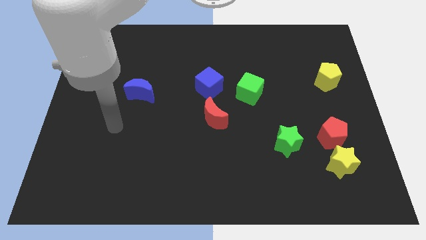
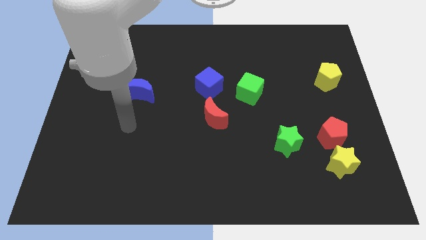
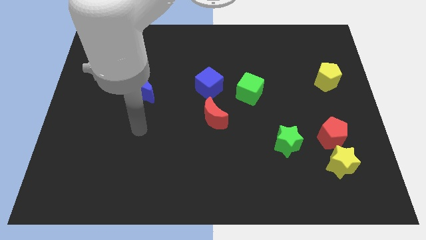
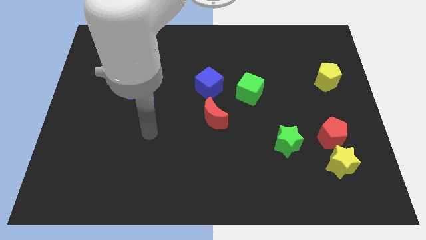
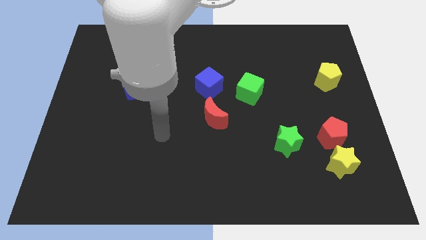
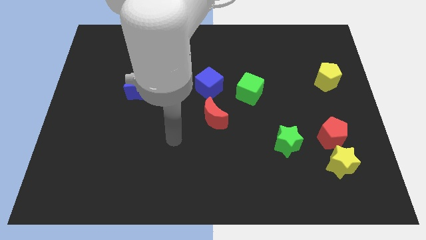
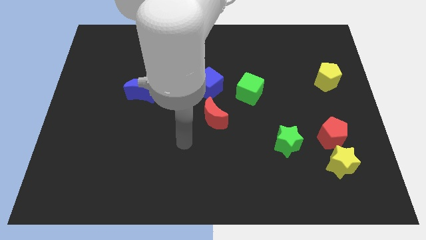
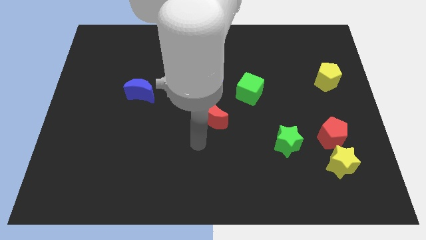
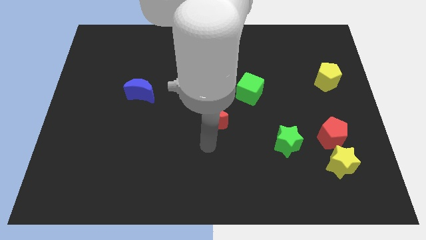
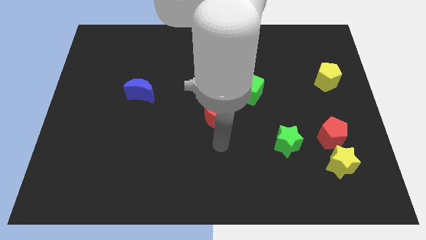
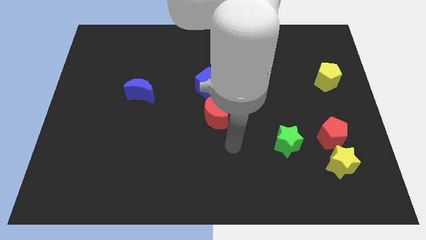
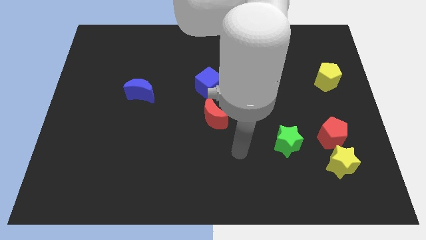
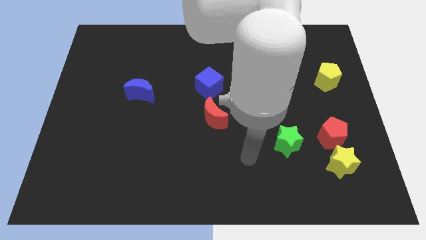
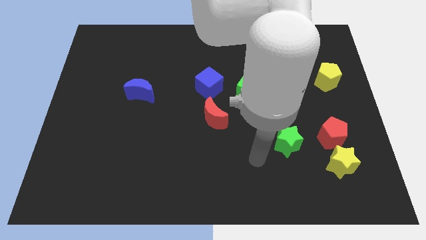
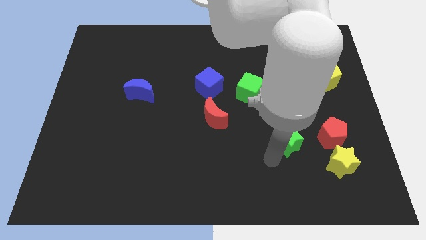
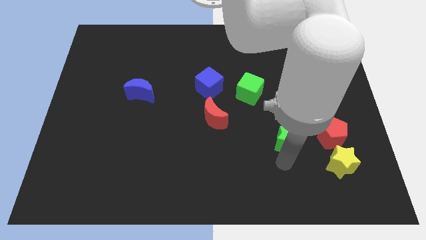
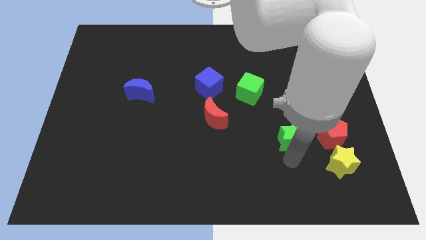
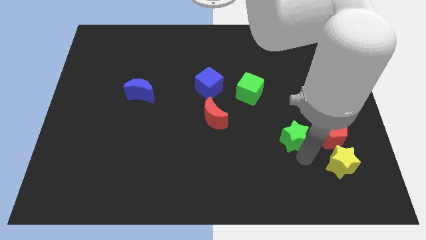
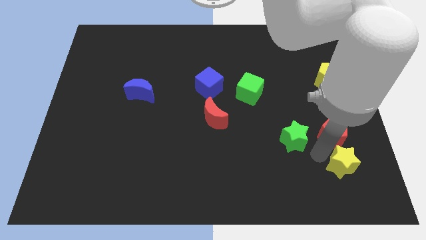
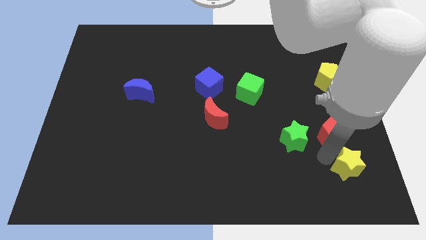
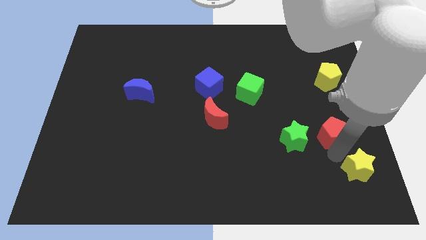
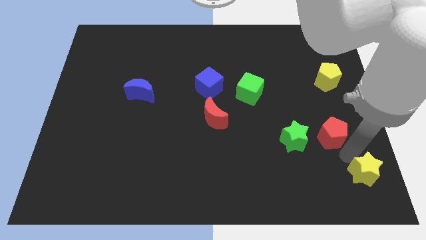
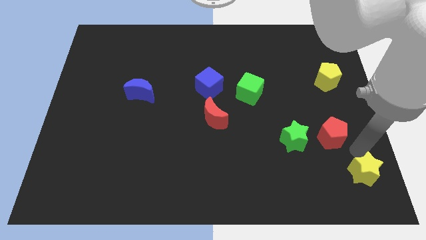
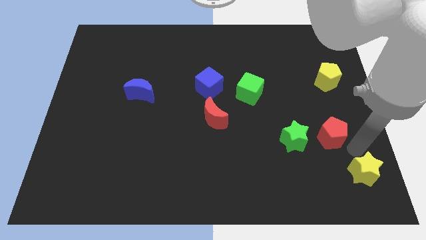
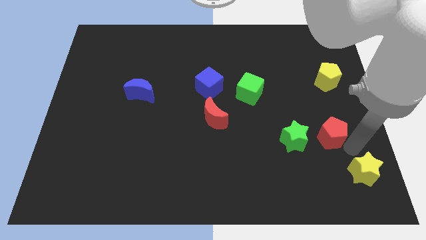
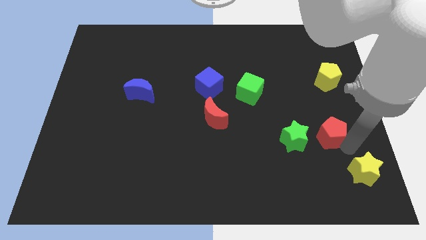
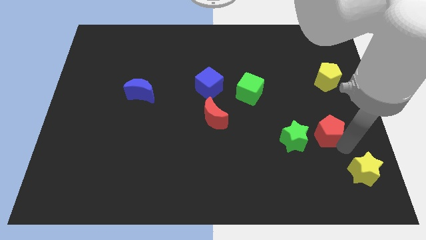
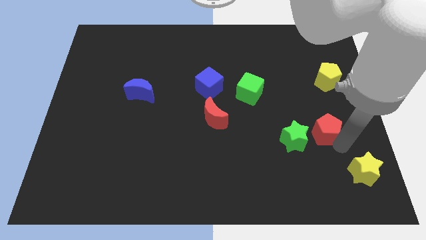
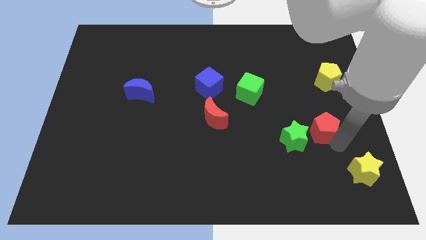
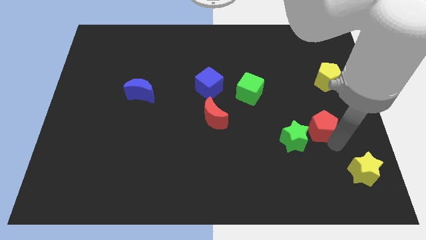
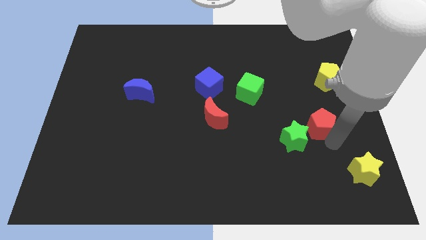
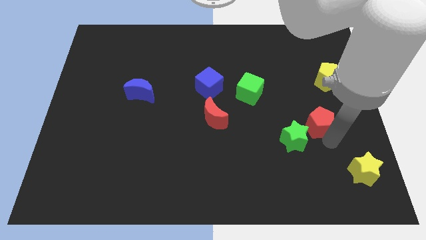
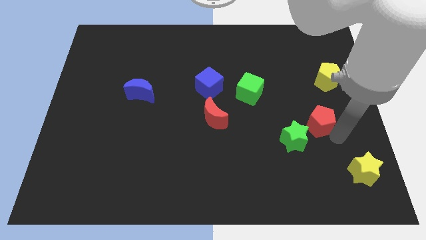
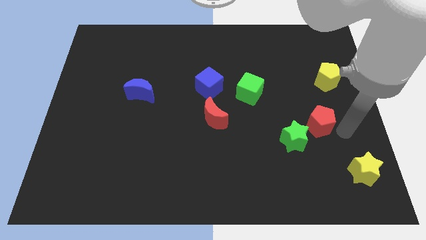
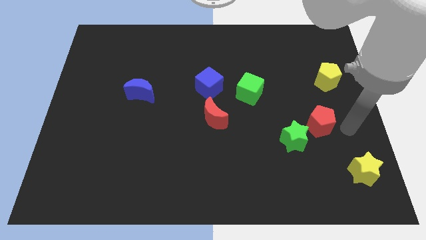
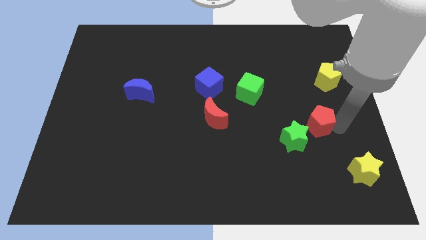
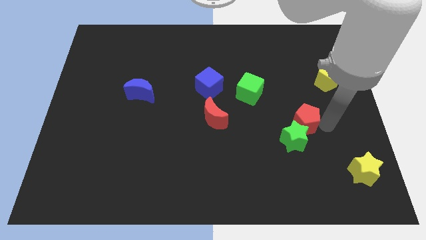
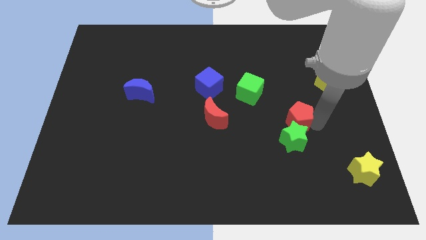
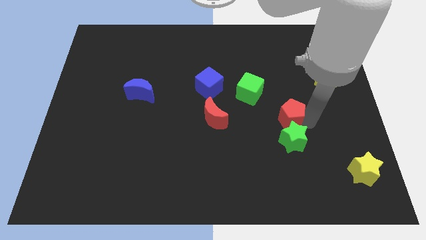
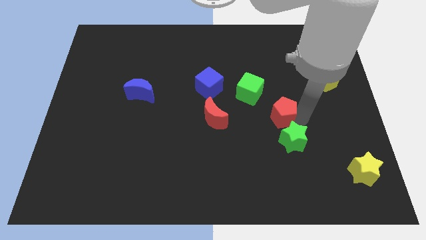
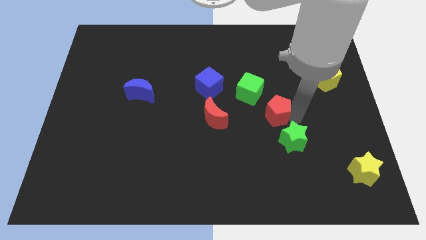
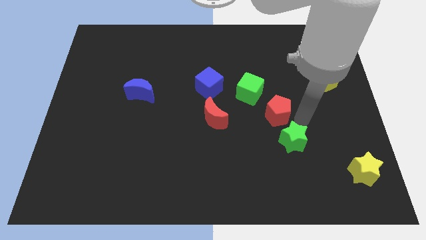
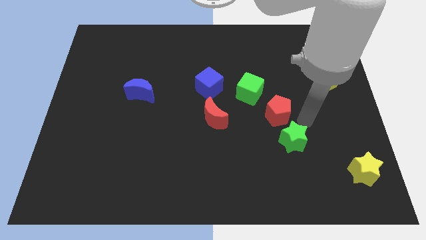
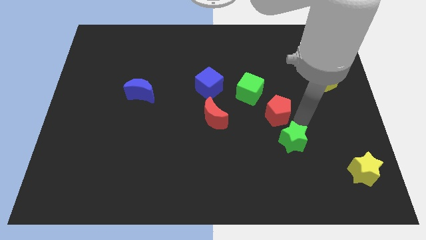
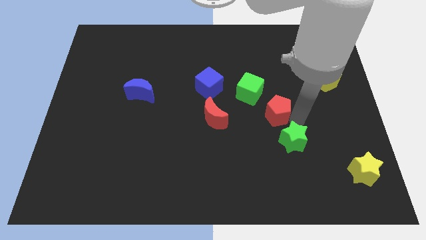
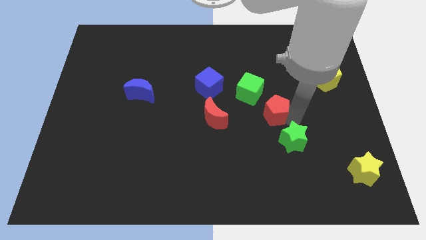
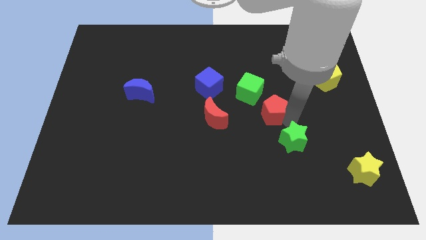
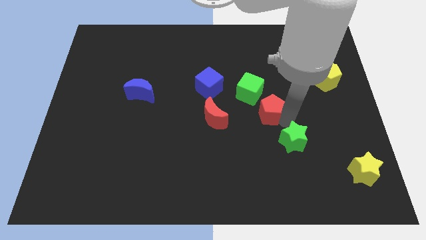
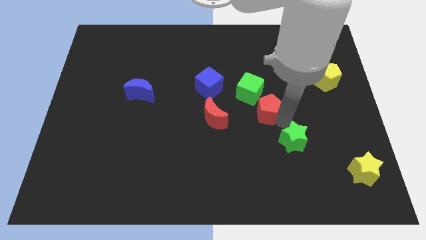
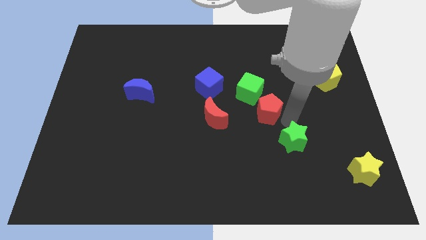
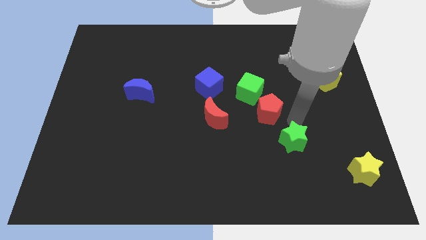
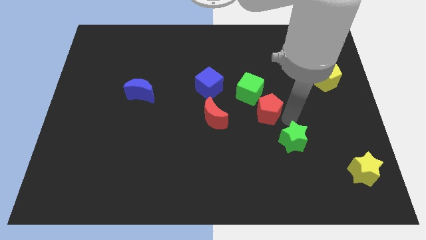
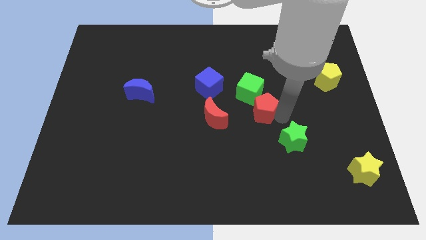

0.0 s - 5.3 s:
move the red pentagon to the center of the board

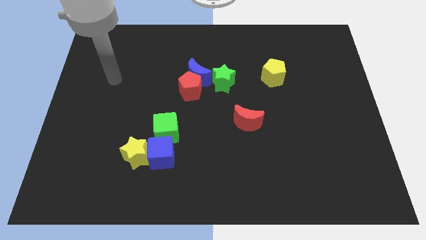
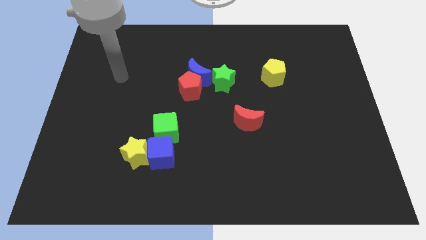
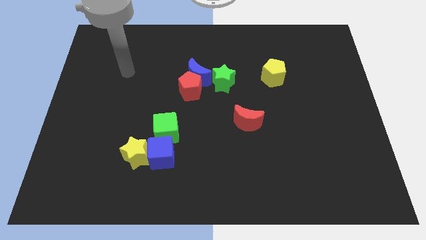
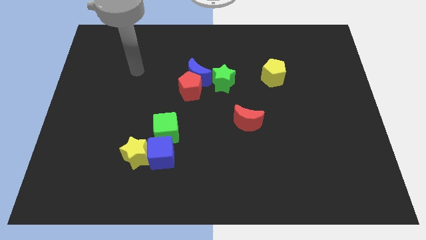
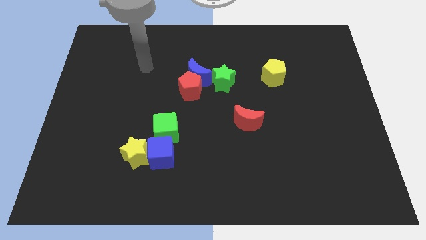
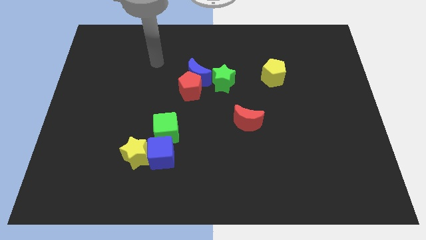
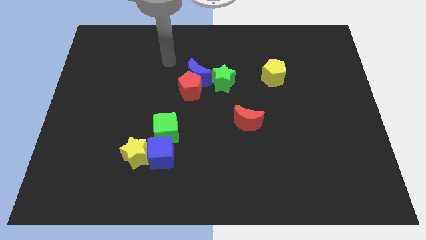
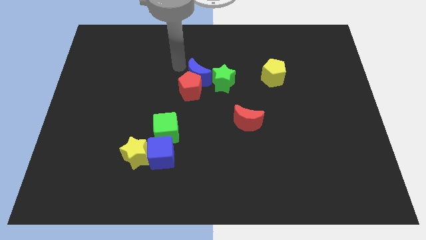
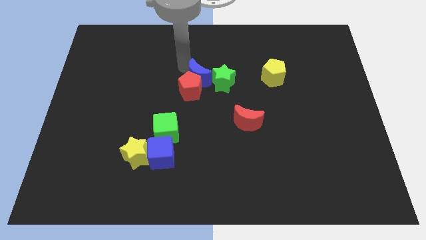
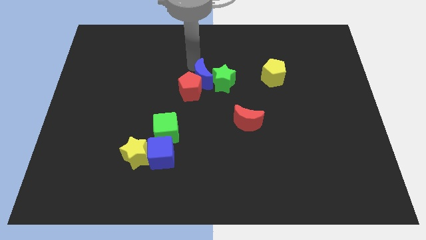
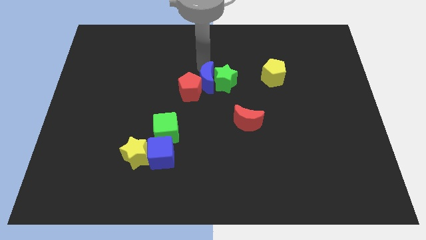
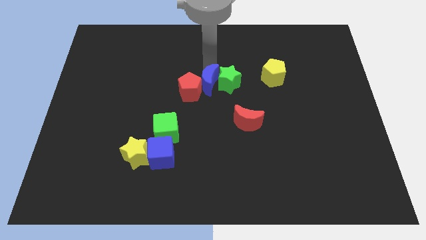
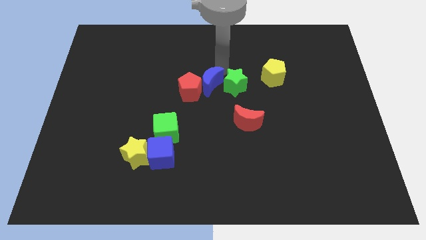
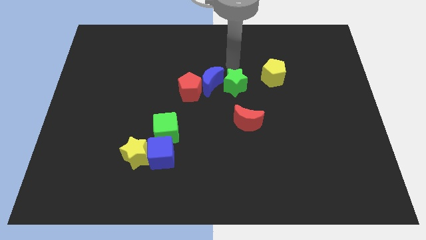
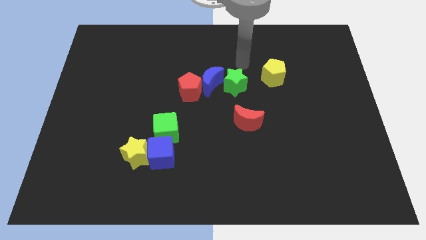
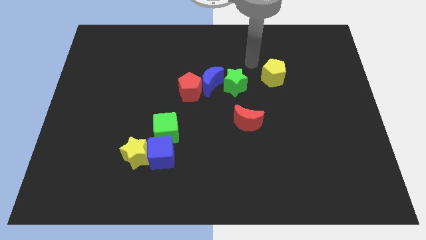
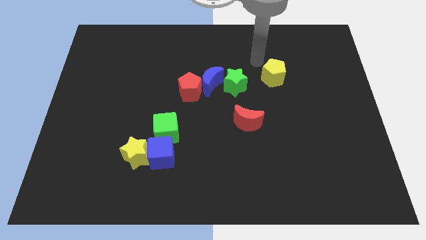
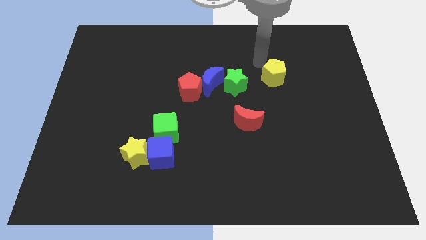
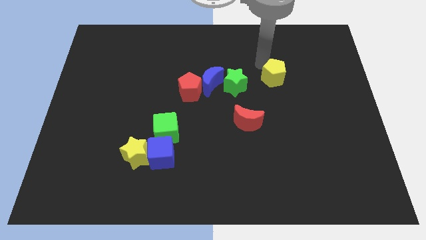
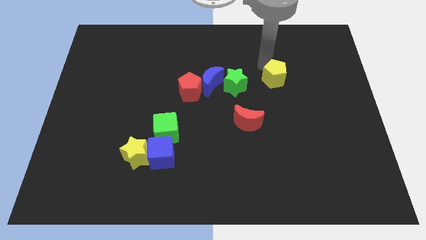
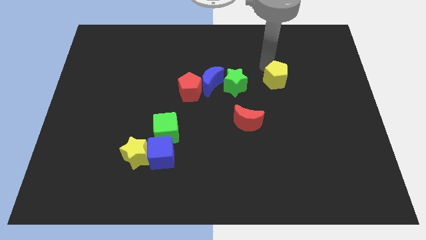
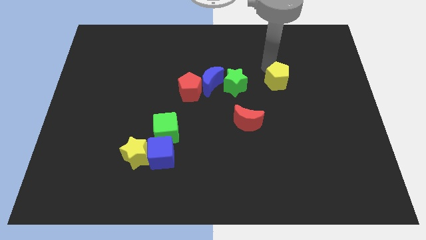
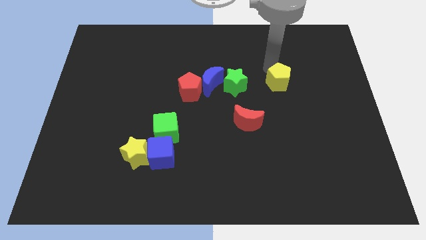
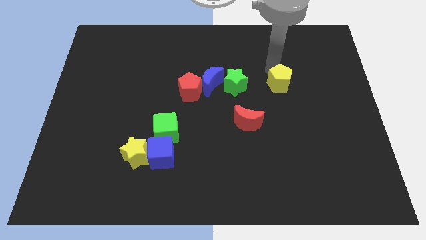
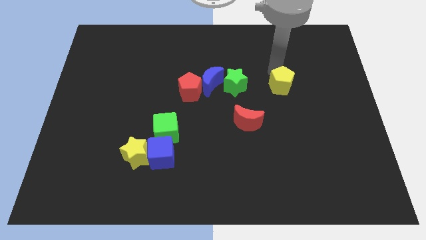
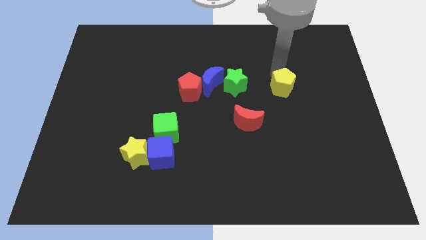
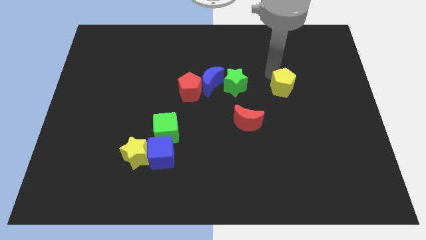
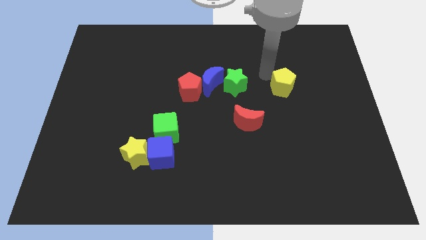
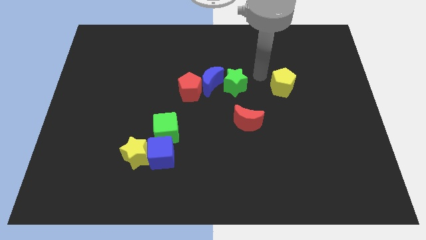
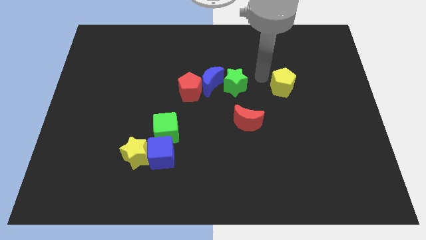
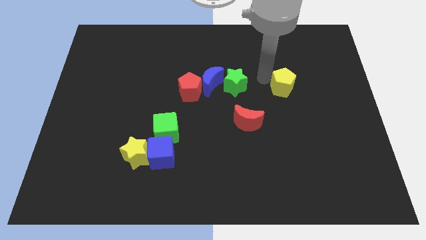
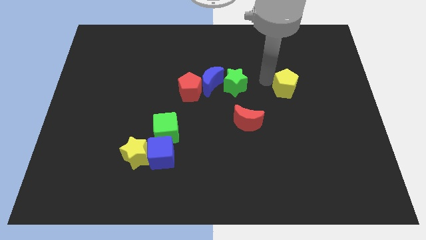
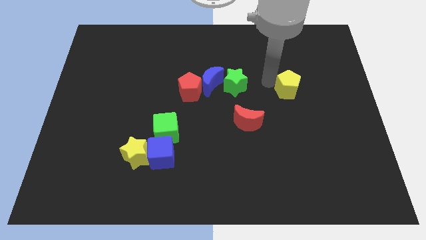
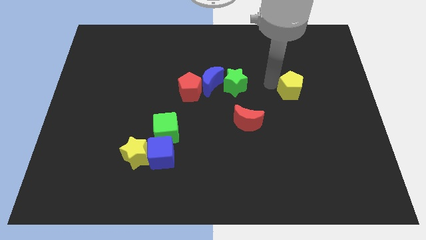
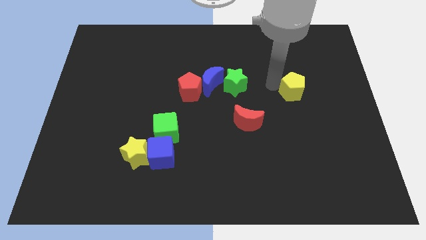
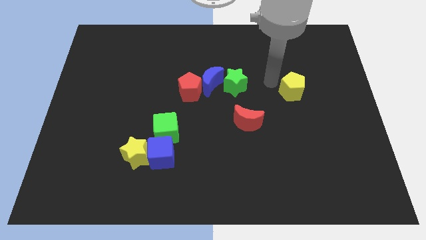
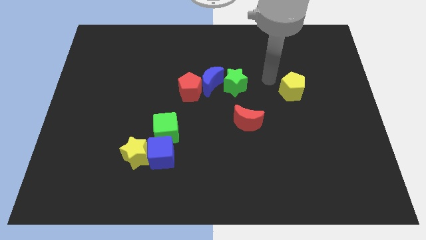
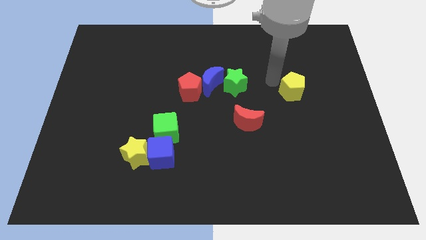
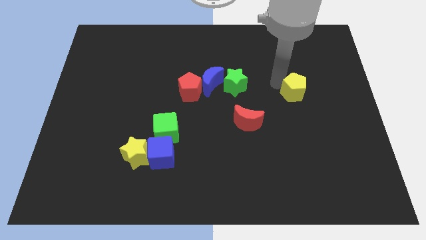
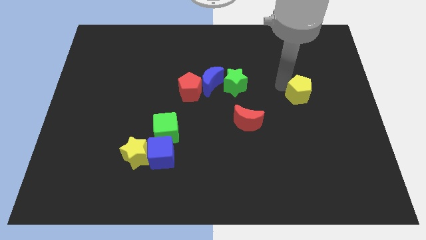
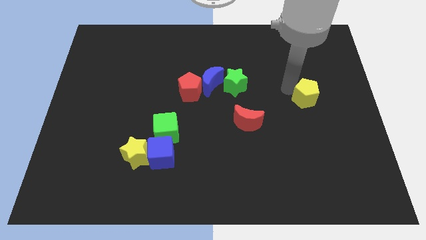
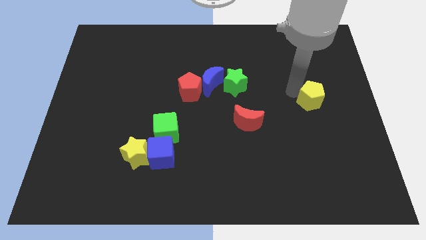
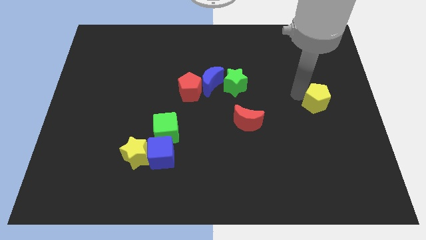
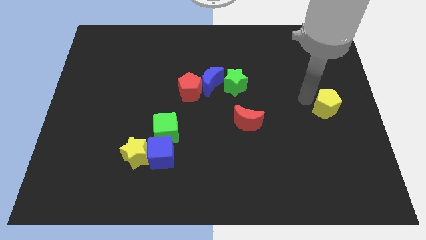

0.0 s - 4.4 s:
slide the yellow pentagon to the right side
